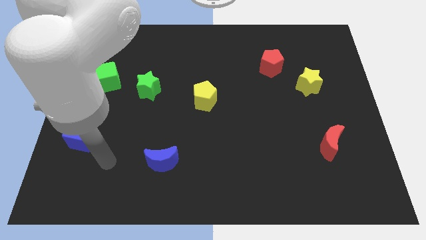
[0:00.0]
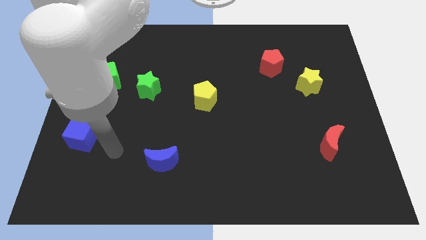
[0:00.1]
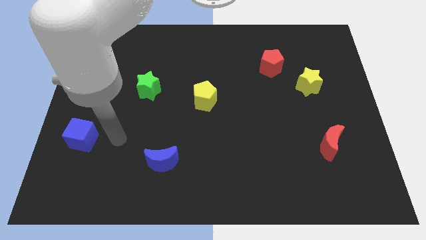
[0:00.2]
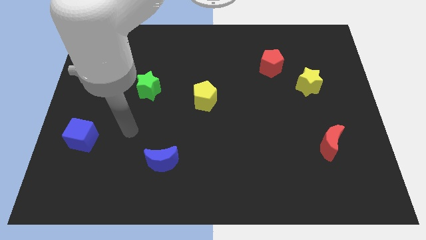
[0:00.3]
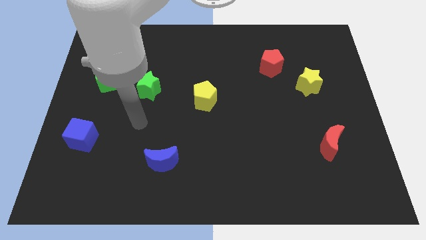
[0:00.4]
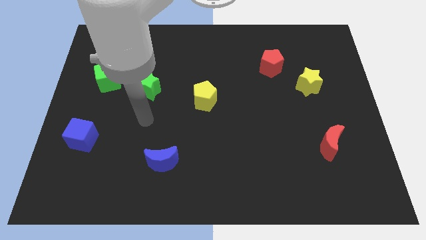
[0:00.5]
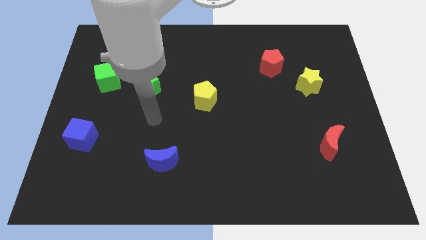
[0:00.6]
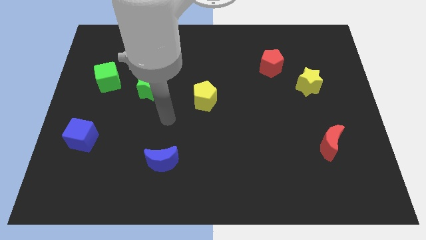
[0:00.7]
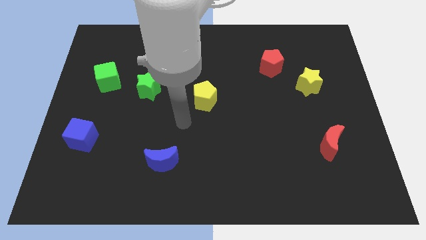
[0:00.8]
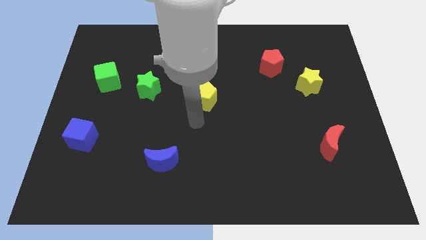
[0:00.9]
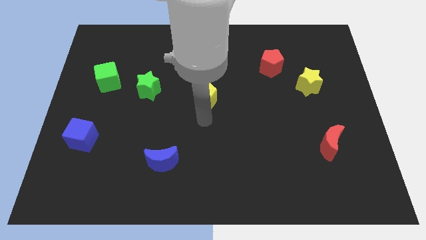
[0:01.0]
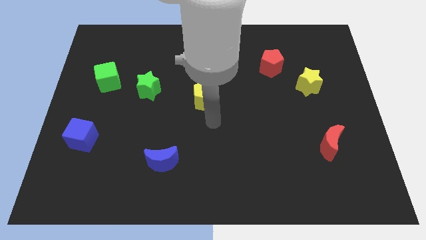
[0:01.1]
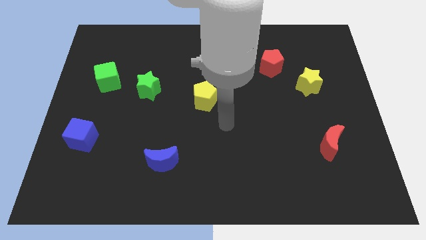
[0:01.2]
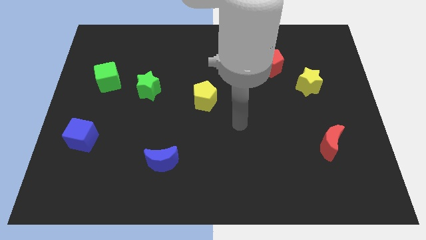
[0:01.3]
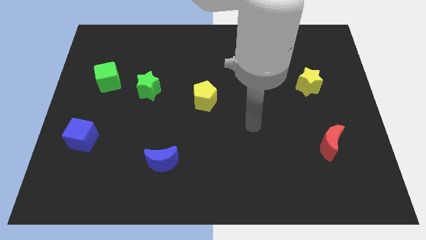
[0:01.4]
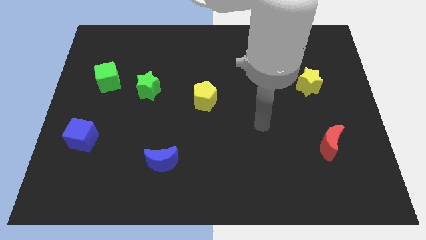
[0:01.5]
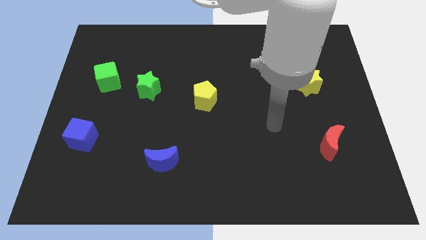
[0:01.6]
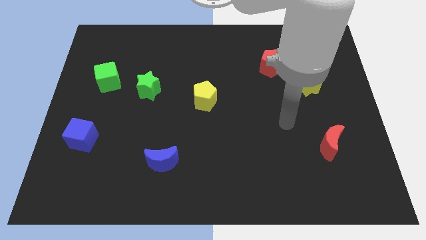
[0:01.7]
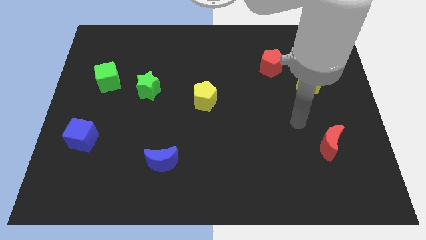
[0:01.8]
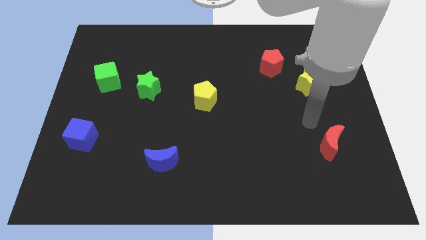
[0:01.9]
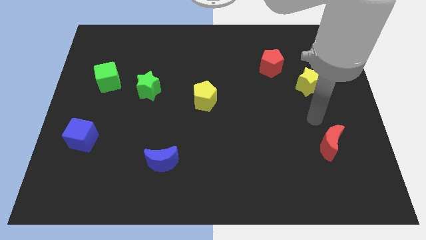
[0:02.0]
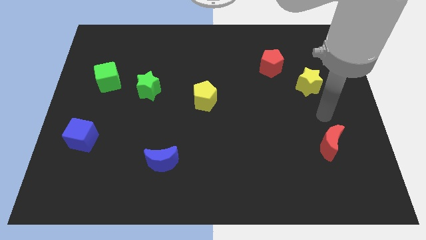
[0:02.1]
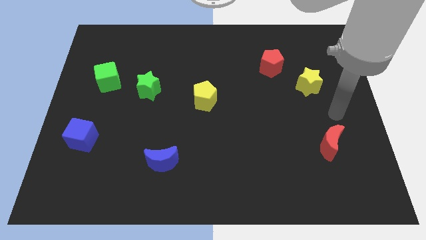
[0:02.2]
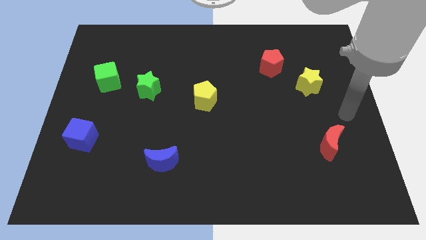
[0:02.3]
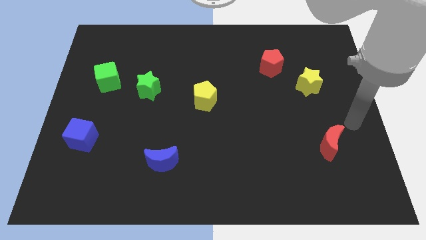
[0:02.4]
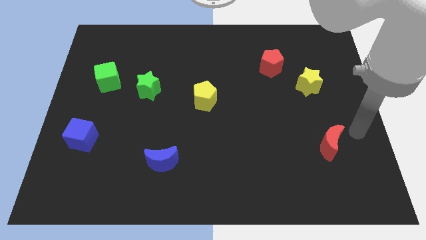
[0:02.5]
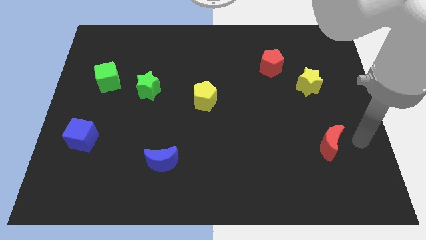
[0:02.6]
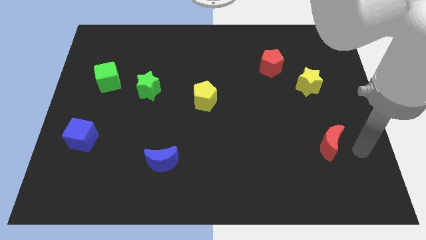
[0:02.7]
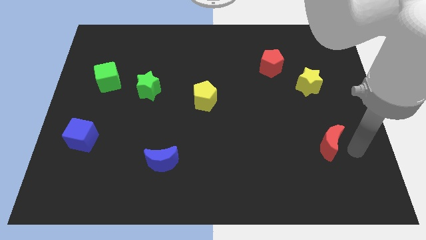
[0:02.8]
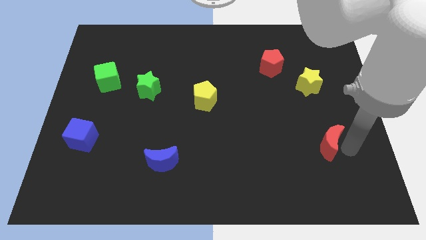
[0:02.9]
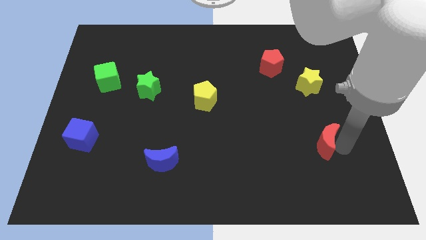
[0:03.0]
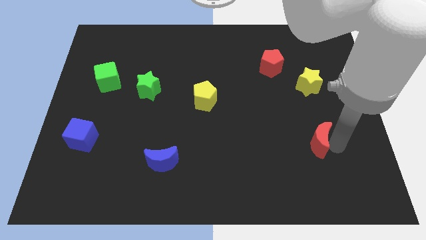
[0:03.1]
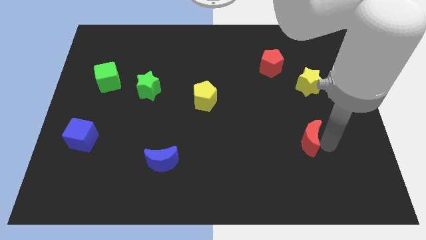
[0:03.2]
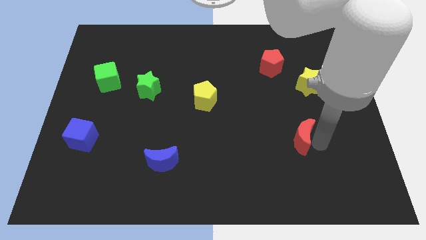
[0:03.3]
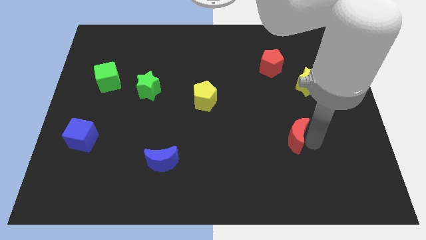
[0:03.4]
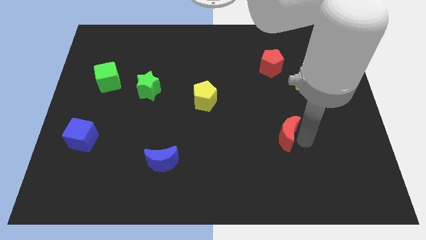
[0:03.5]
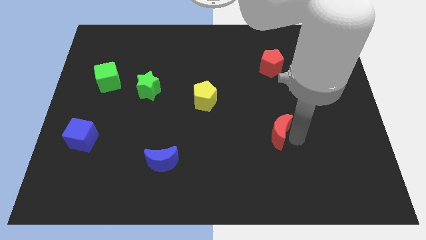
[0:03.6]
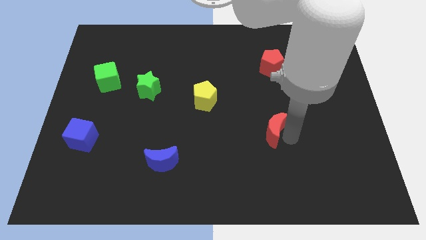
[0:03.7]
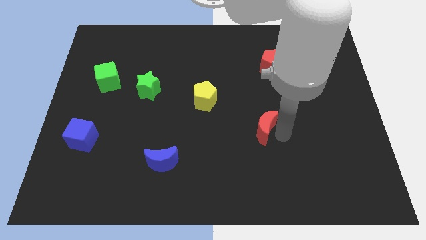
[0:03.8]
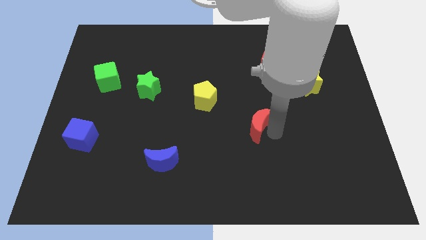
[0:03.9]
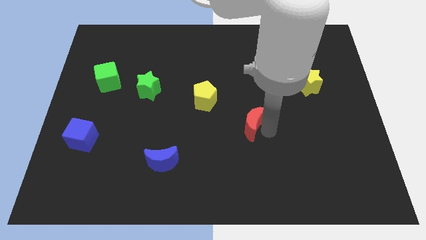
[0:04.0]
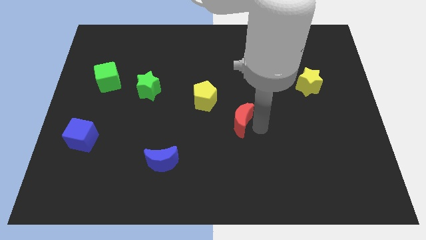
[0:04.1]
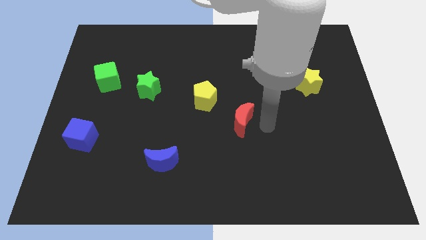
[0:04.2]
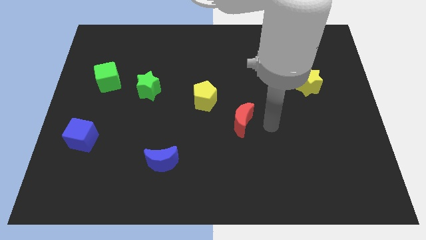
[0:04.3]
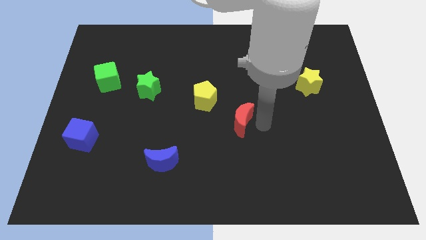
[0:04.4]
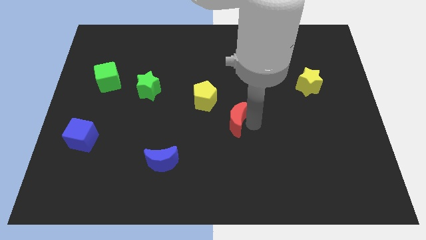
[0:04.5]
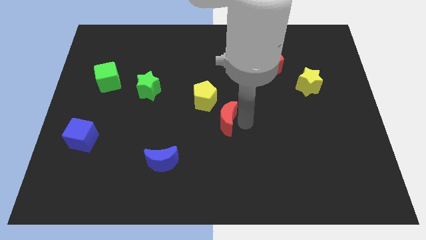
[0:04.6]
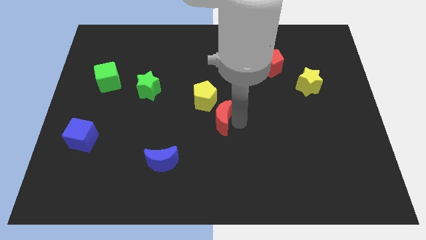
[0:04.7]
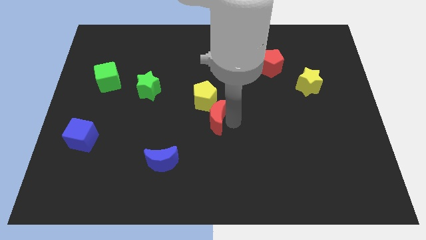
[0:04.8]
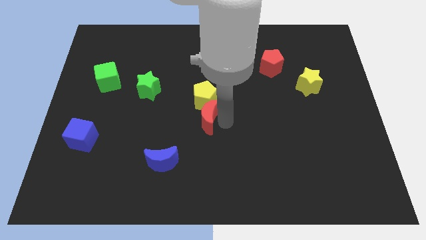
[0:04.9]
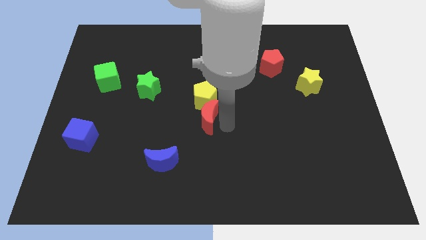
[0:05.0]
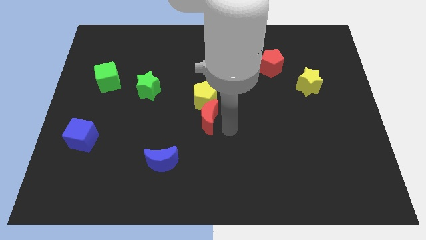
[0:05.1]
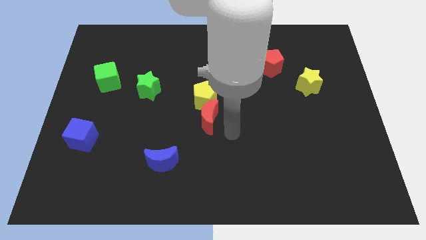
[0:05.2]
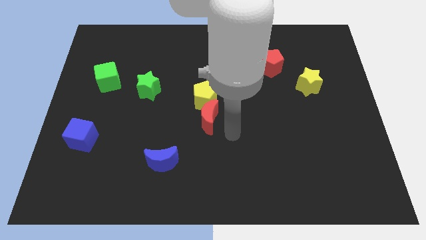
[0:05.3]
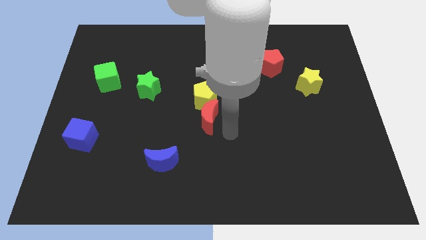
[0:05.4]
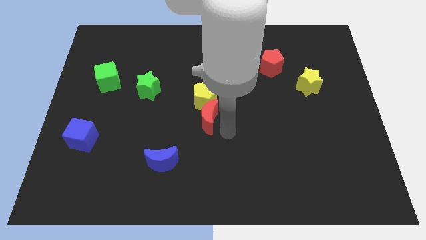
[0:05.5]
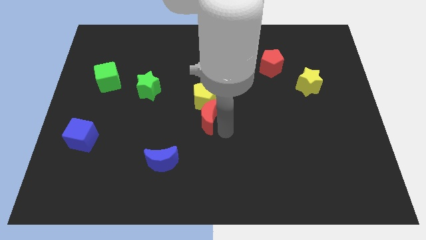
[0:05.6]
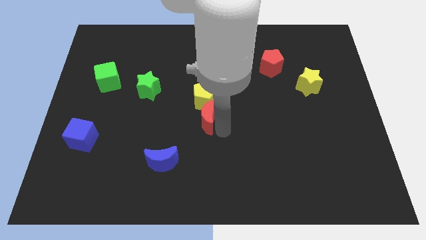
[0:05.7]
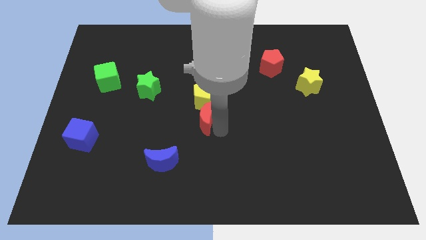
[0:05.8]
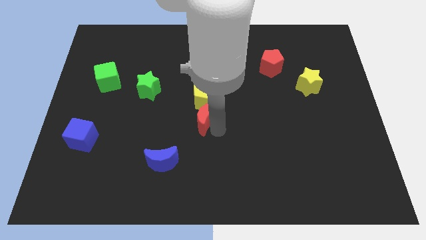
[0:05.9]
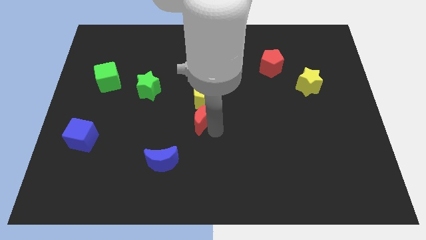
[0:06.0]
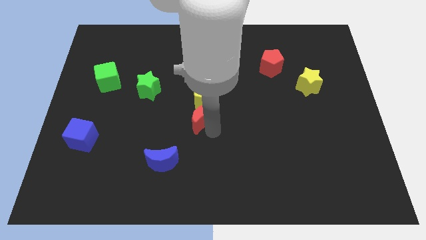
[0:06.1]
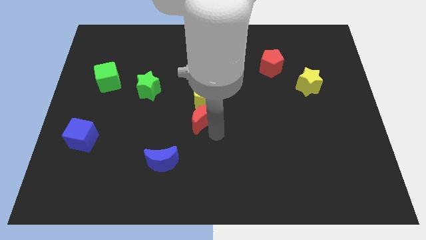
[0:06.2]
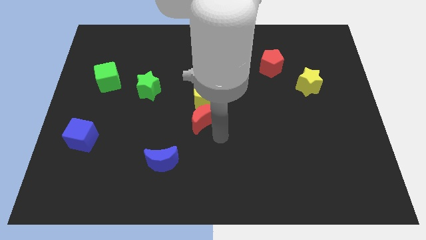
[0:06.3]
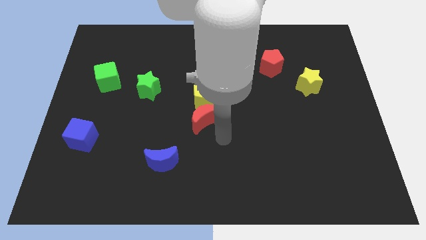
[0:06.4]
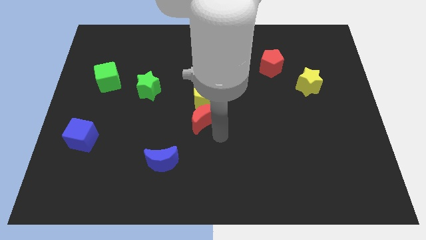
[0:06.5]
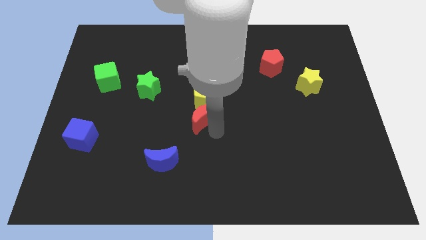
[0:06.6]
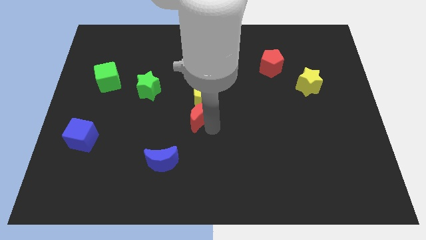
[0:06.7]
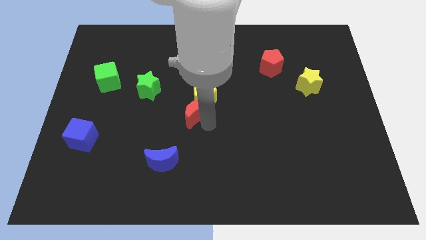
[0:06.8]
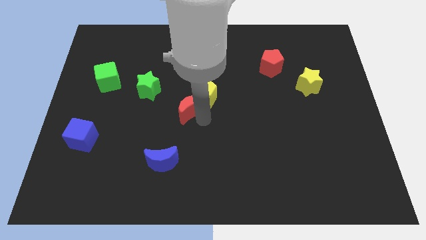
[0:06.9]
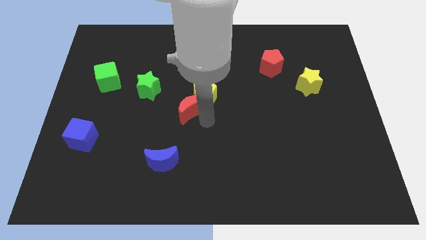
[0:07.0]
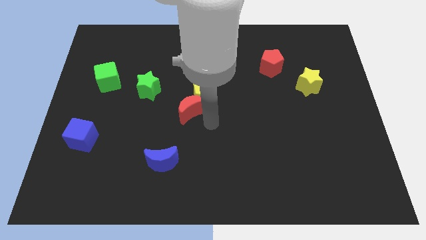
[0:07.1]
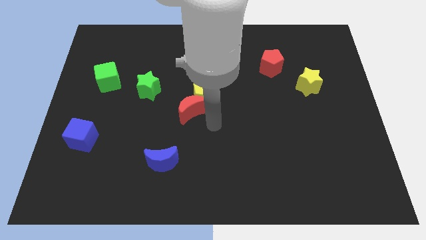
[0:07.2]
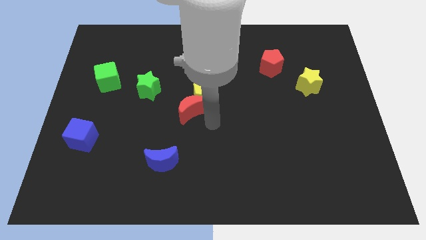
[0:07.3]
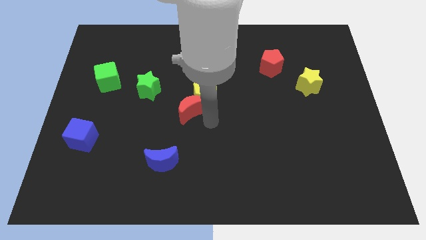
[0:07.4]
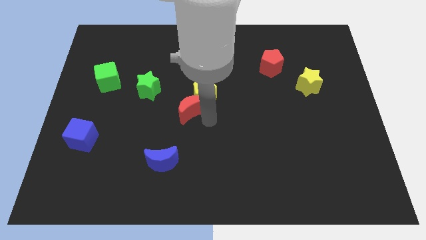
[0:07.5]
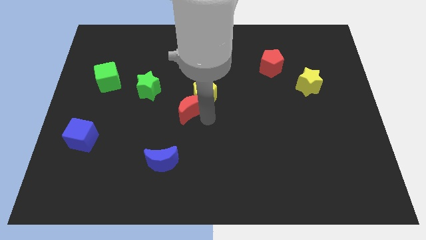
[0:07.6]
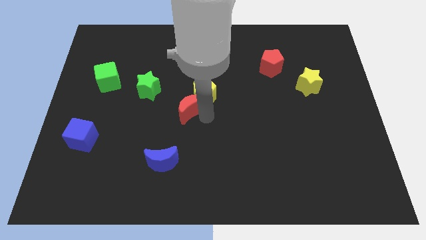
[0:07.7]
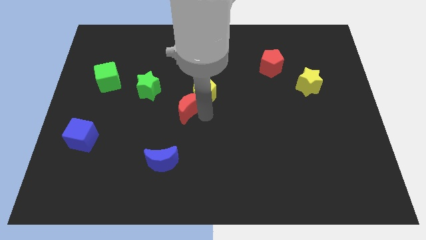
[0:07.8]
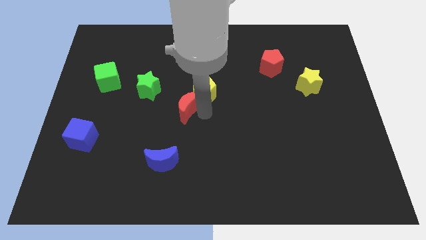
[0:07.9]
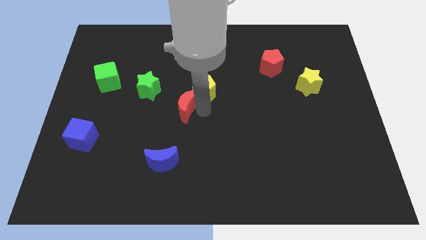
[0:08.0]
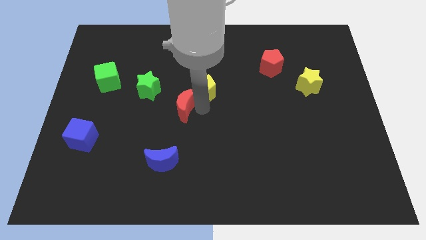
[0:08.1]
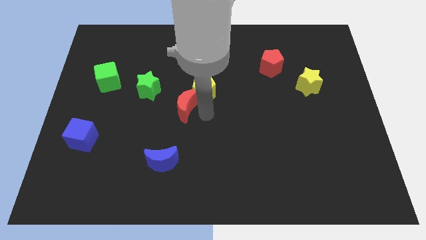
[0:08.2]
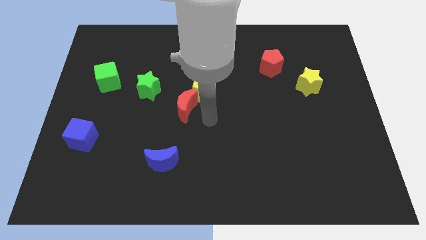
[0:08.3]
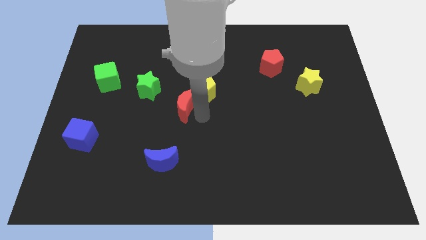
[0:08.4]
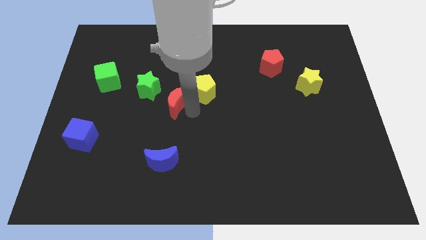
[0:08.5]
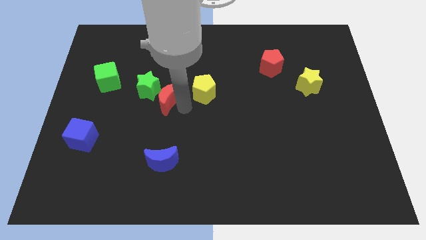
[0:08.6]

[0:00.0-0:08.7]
move the red moon towards the green star
